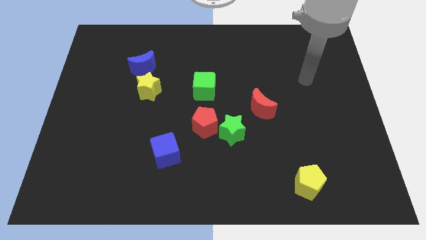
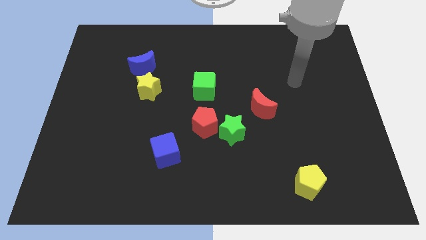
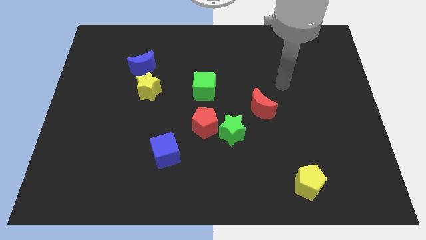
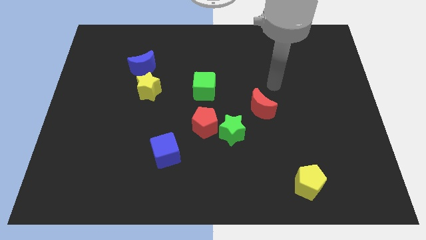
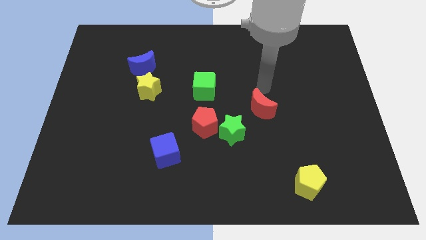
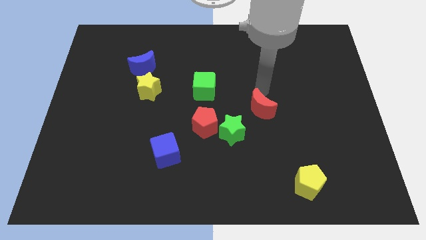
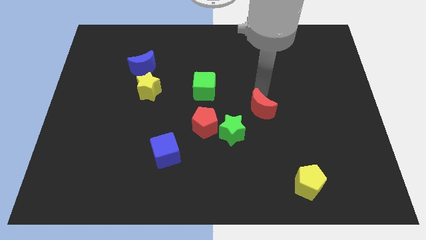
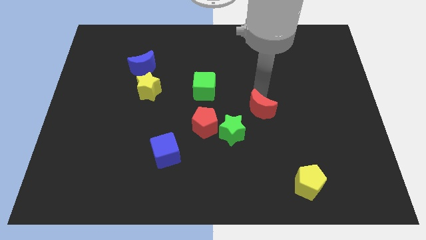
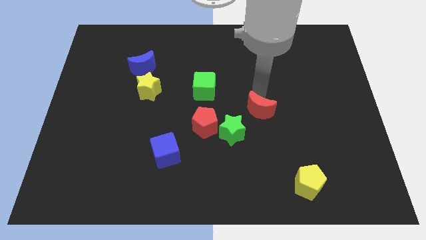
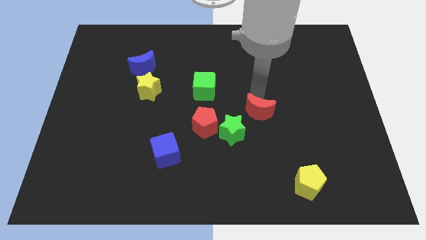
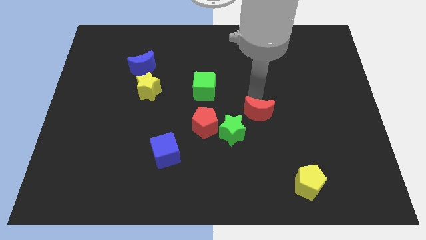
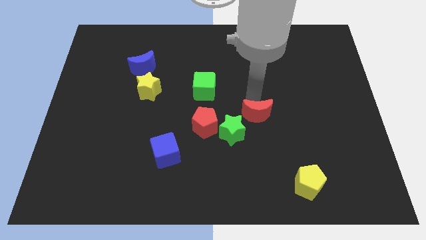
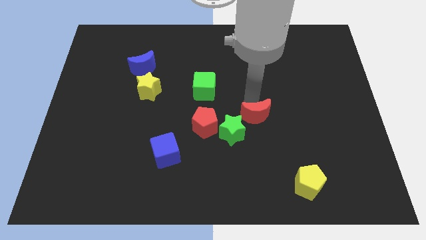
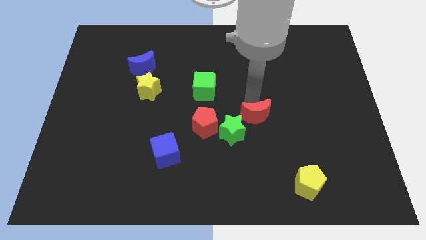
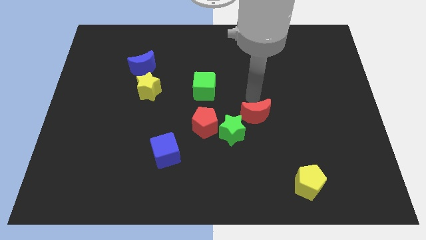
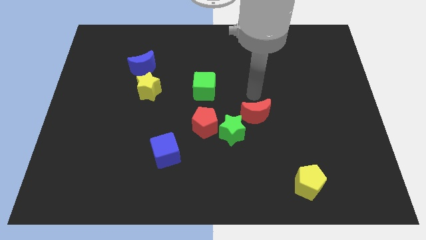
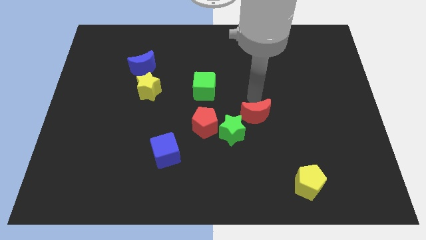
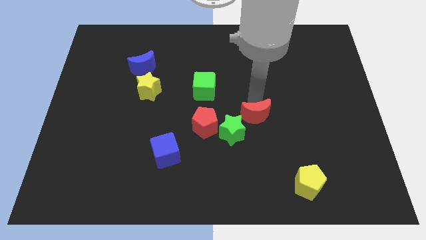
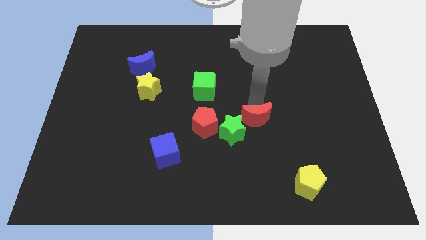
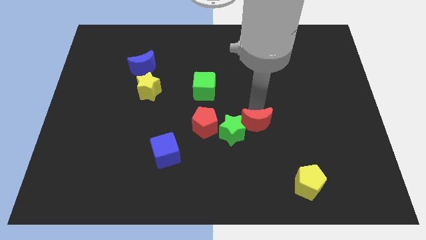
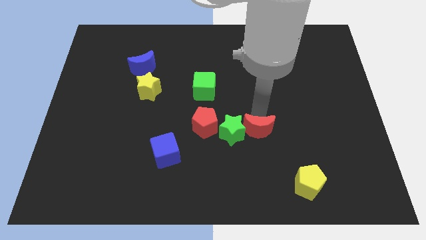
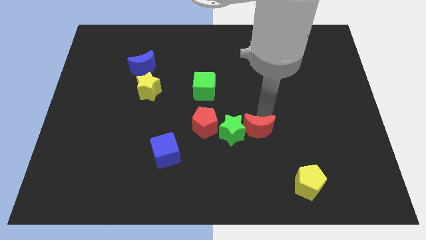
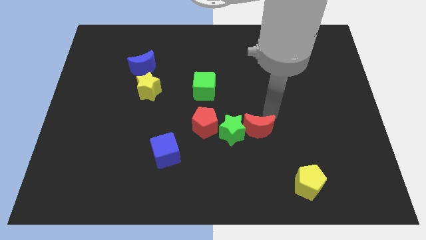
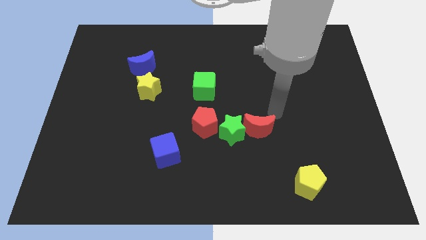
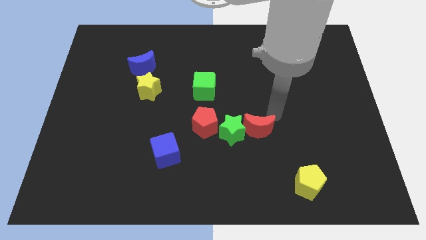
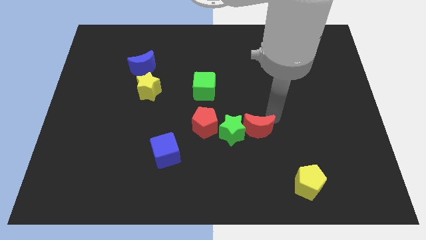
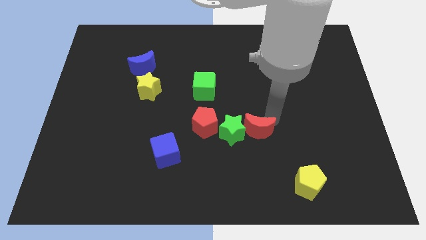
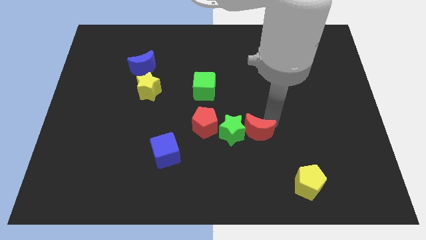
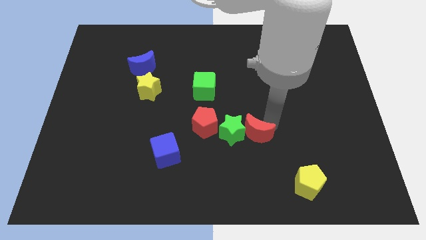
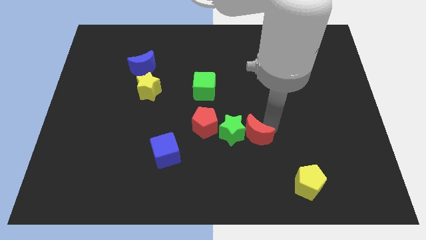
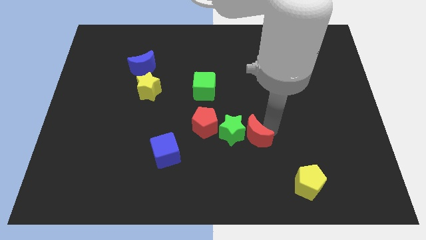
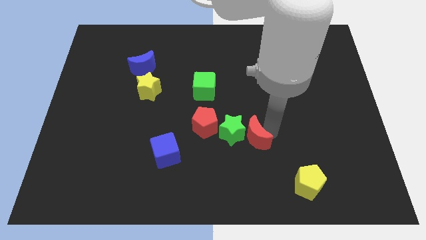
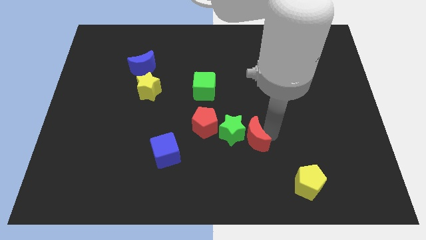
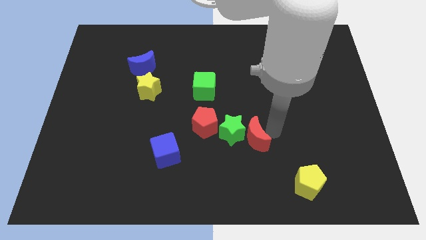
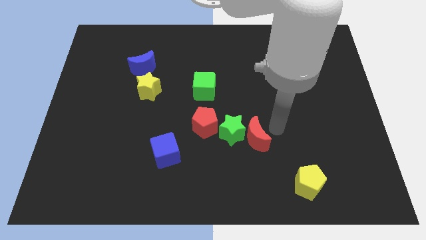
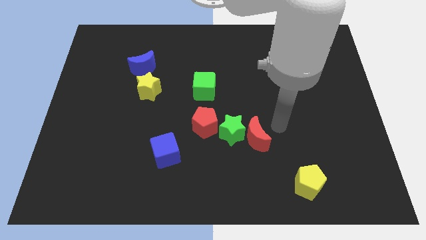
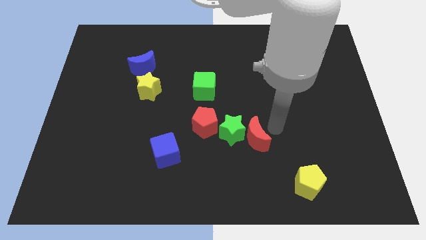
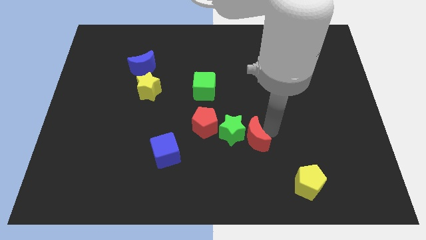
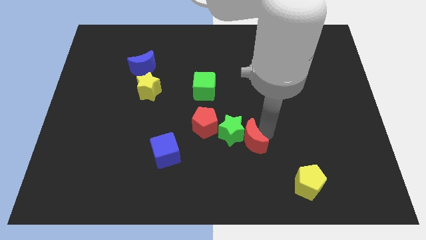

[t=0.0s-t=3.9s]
push the red moon slightly downwards and to the left diagonally

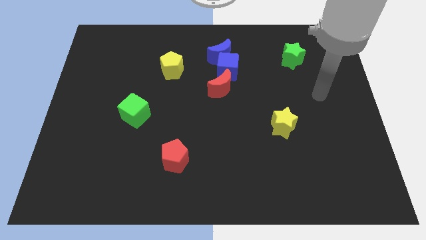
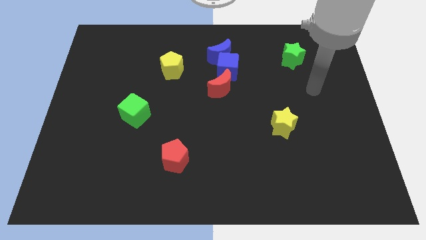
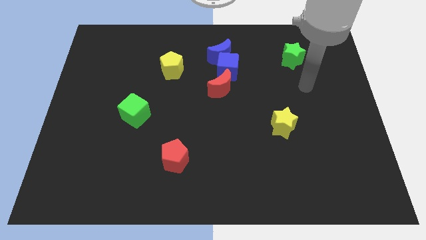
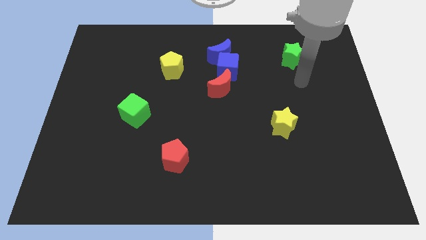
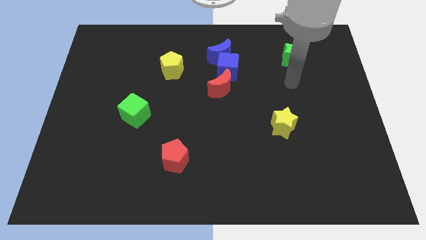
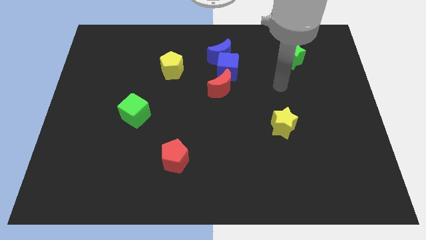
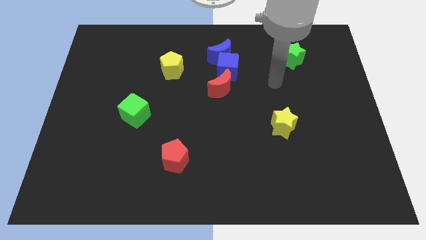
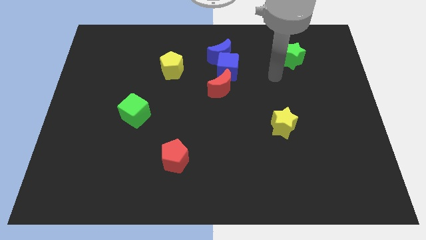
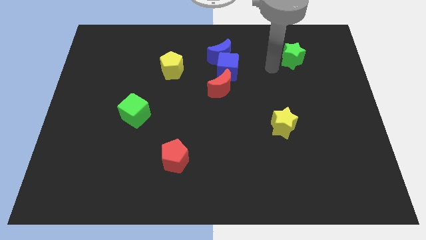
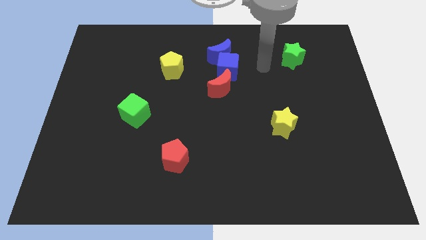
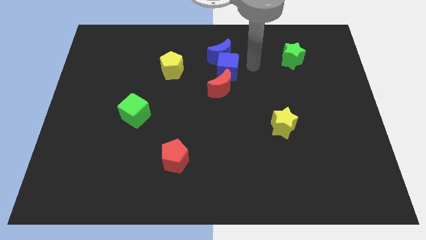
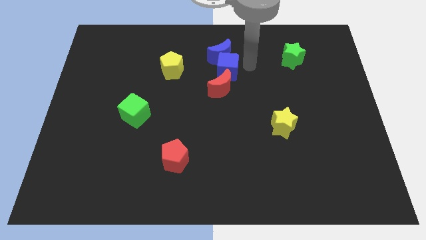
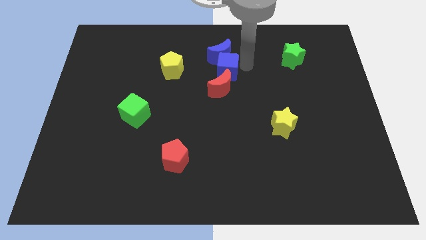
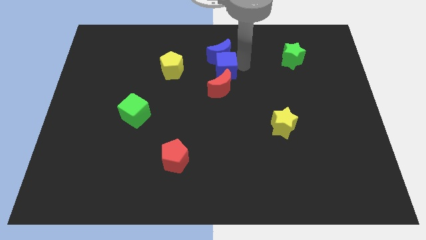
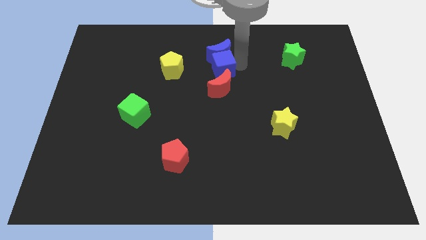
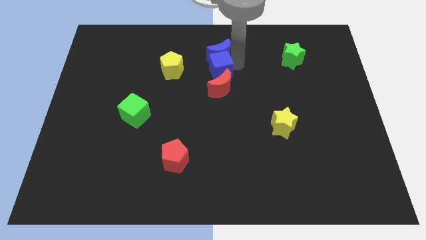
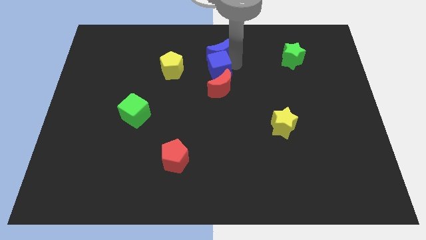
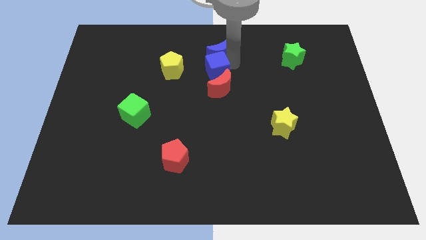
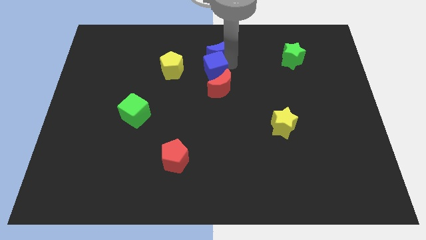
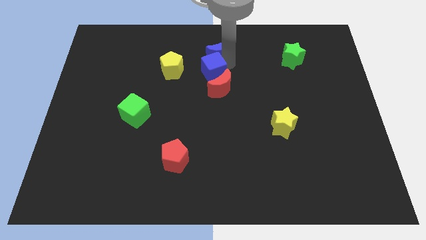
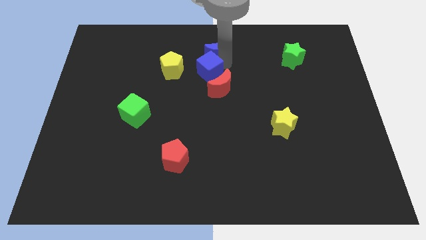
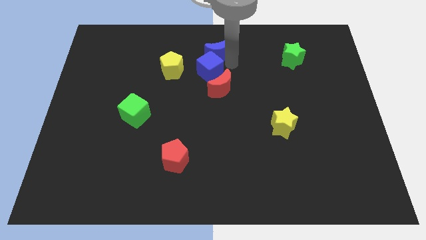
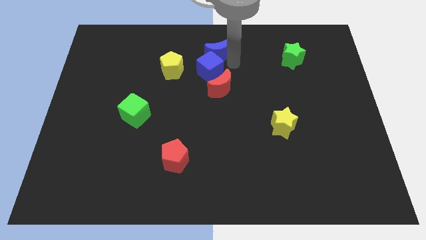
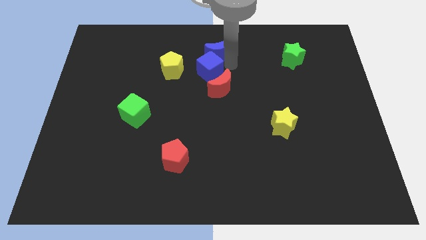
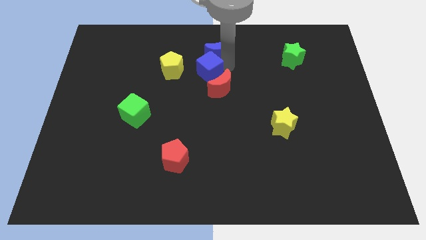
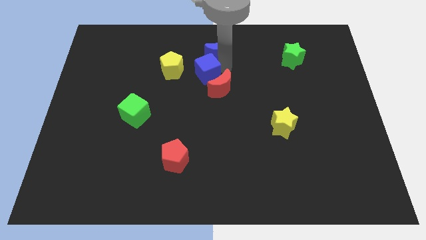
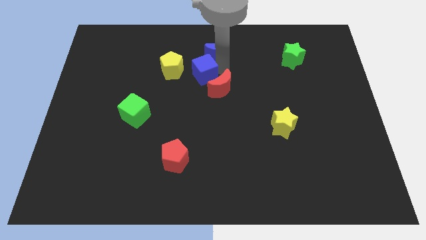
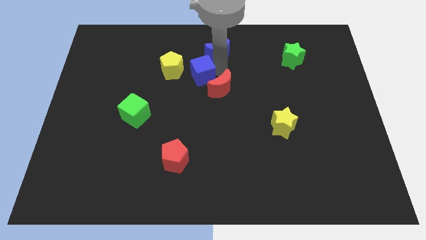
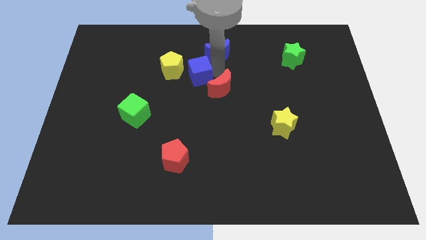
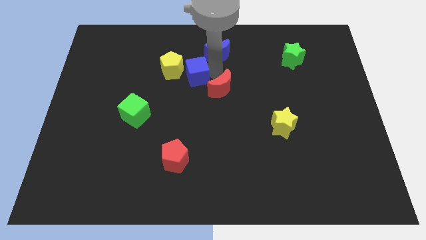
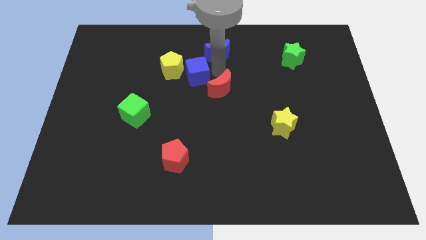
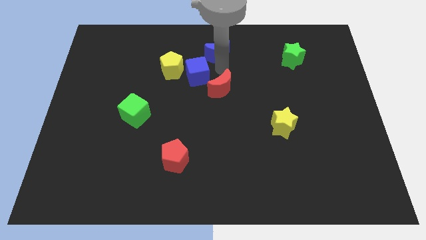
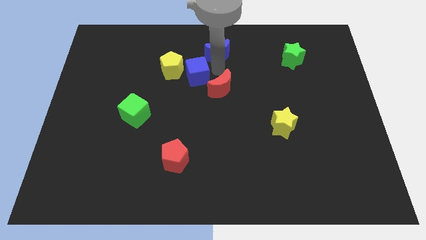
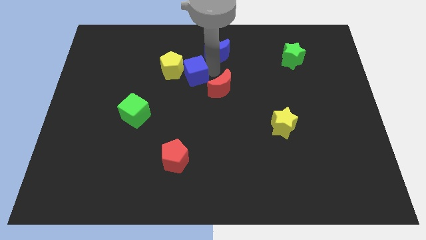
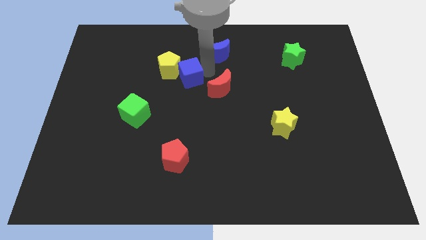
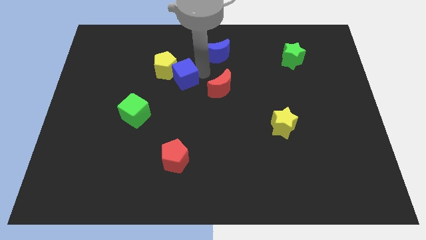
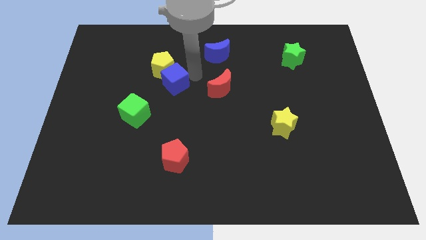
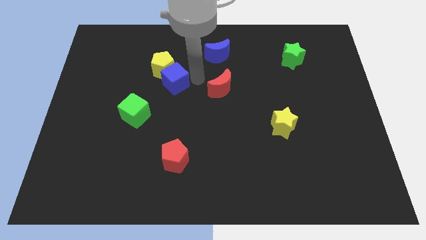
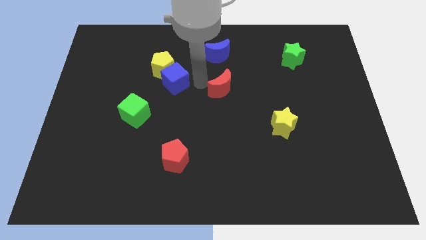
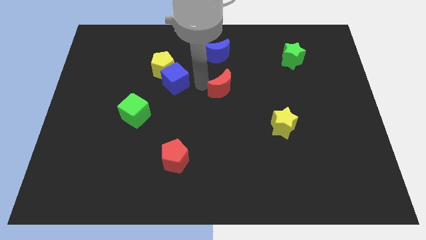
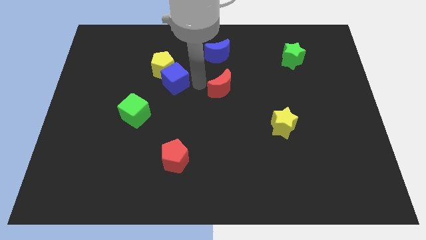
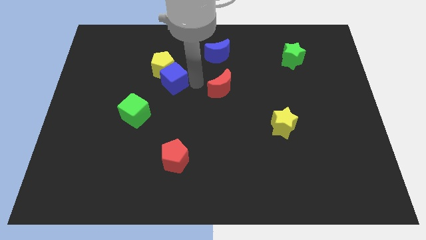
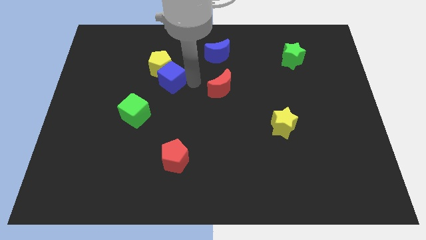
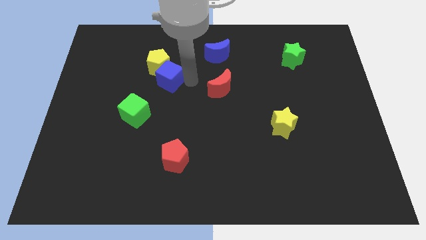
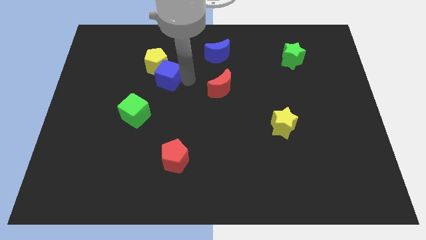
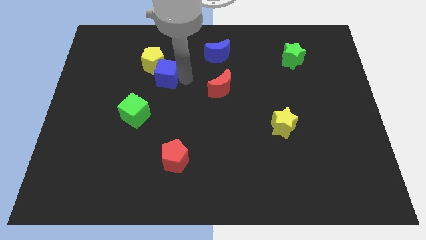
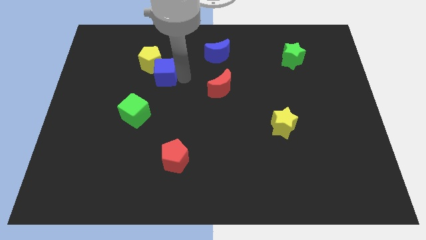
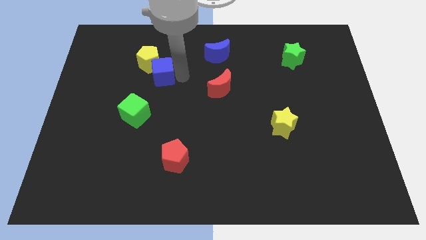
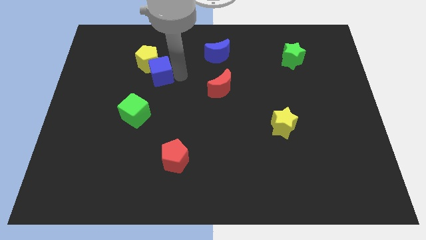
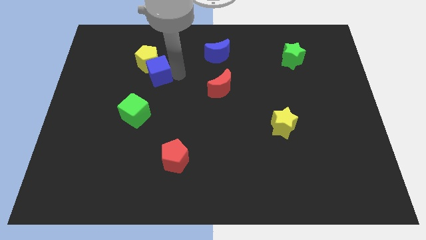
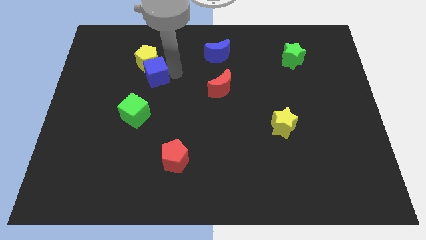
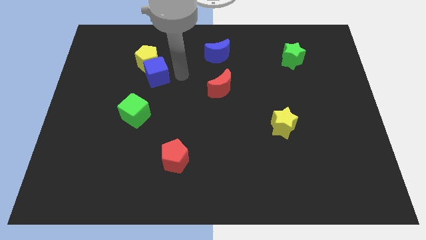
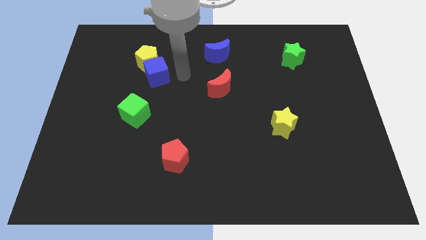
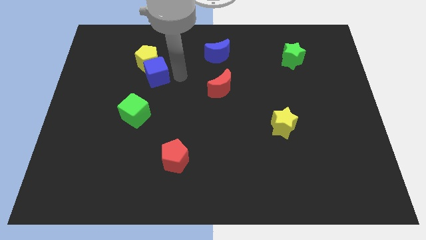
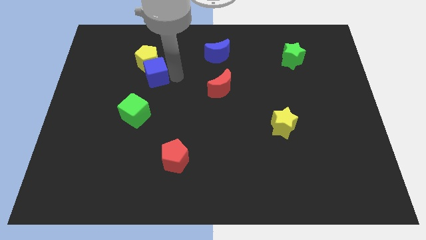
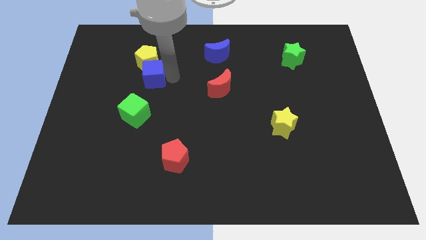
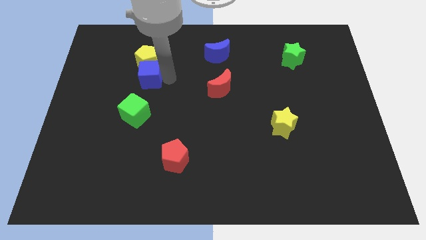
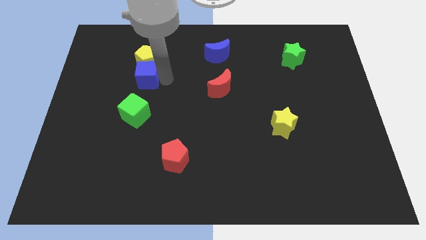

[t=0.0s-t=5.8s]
slide the blue cube to the left
